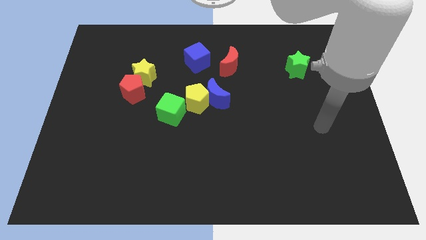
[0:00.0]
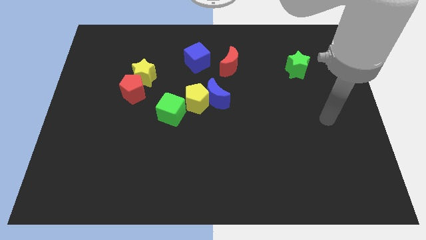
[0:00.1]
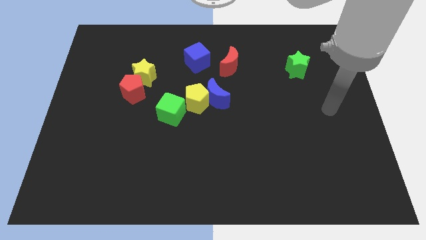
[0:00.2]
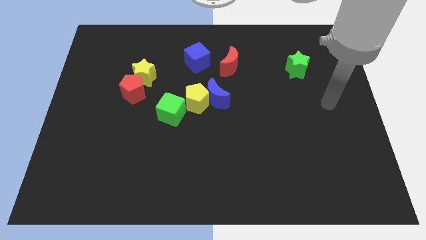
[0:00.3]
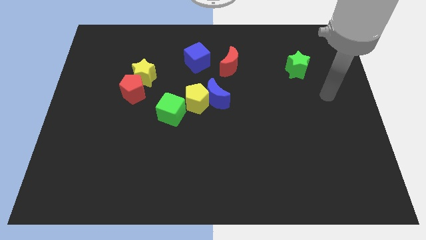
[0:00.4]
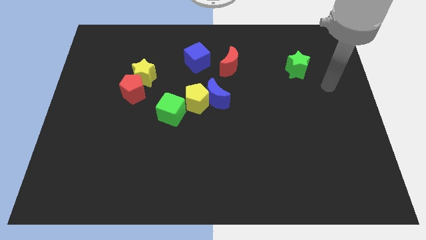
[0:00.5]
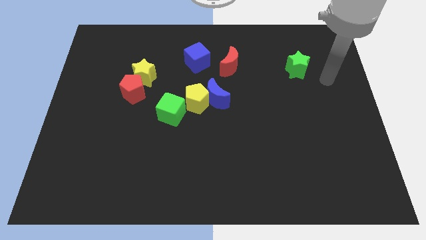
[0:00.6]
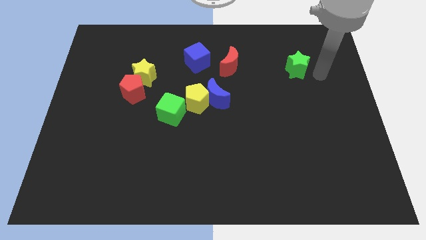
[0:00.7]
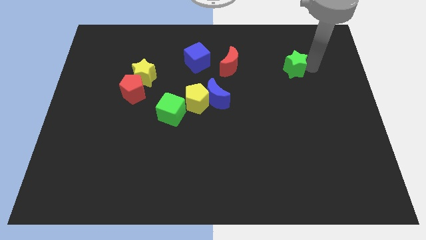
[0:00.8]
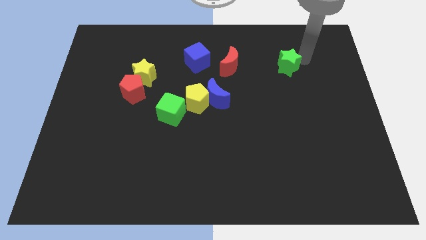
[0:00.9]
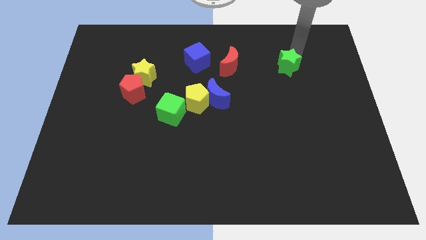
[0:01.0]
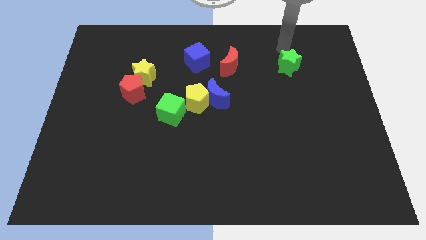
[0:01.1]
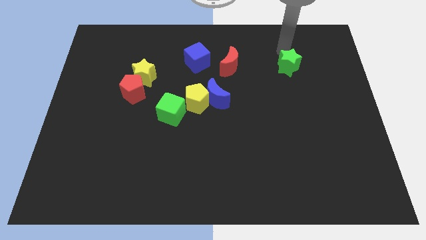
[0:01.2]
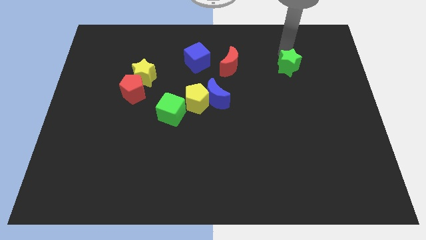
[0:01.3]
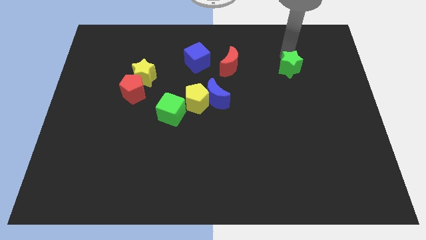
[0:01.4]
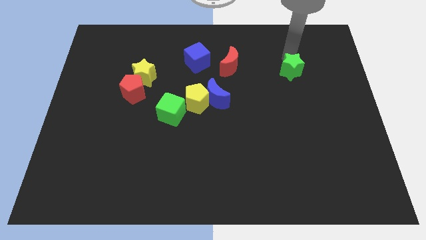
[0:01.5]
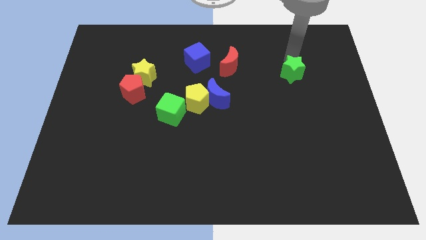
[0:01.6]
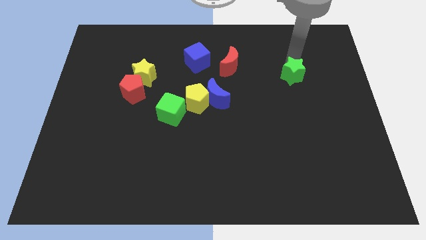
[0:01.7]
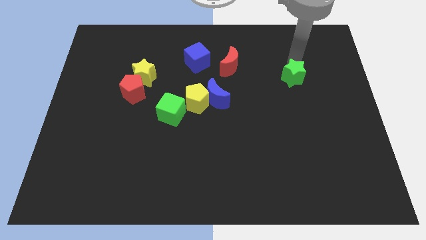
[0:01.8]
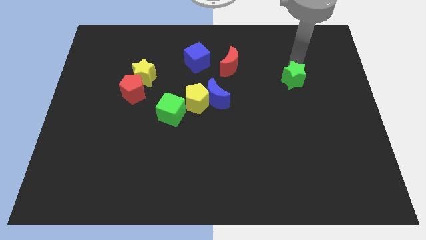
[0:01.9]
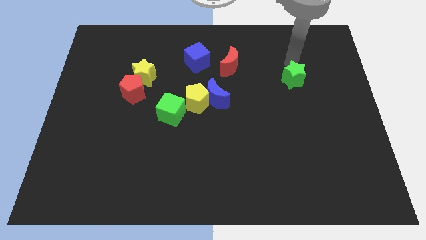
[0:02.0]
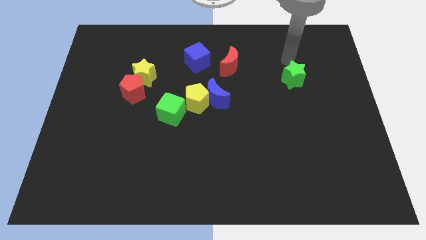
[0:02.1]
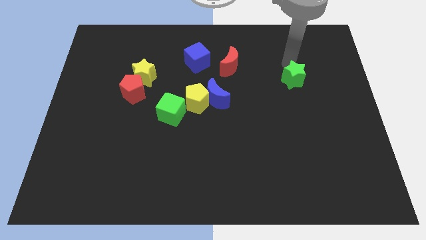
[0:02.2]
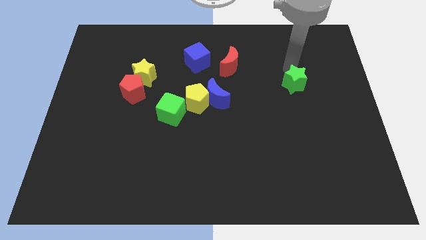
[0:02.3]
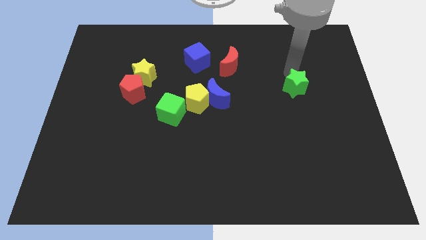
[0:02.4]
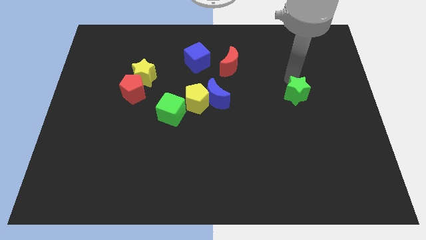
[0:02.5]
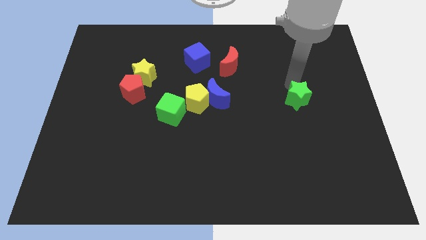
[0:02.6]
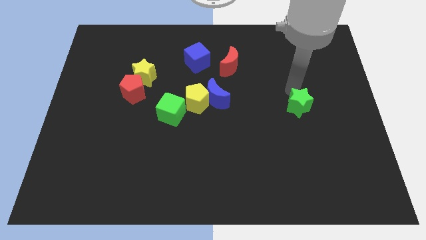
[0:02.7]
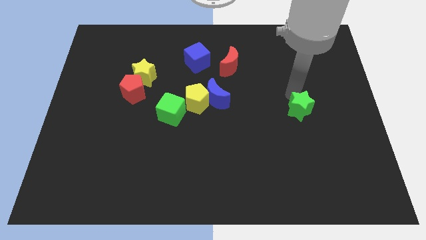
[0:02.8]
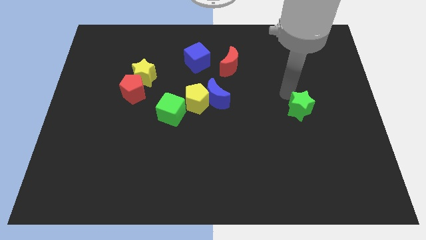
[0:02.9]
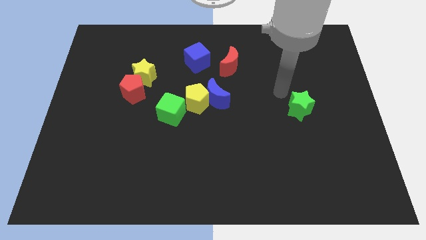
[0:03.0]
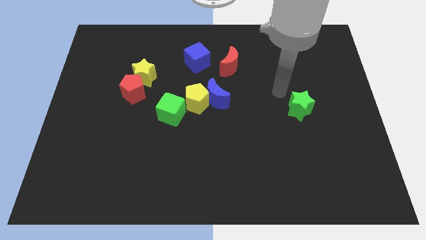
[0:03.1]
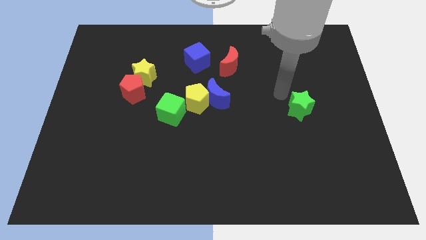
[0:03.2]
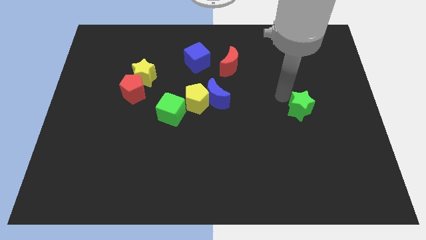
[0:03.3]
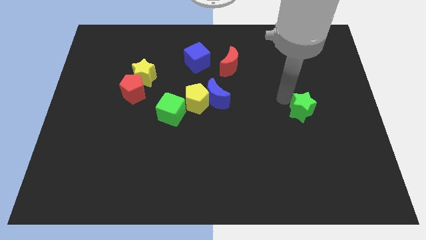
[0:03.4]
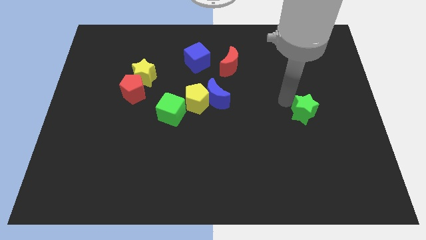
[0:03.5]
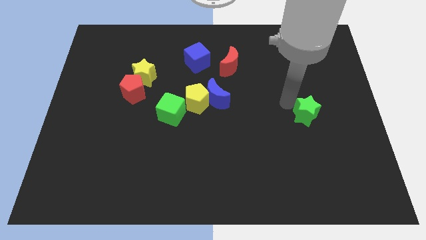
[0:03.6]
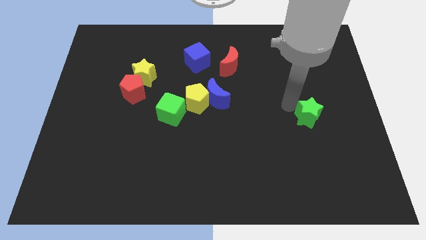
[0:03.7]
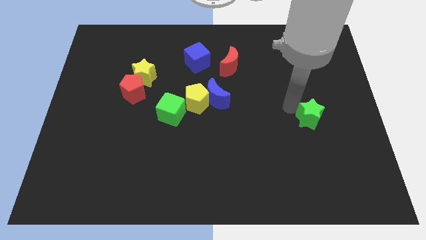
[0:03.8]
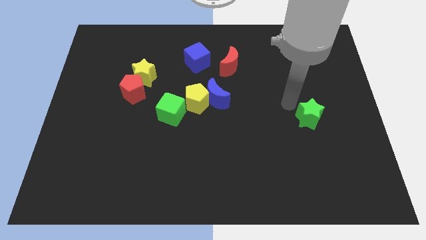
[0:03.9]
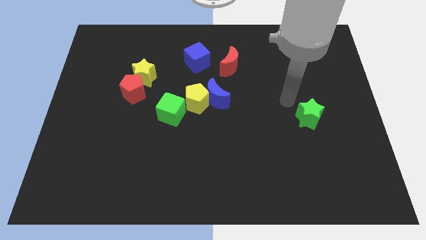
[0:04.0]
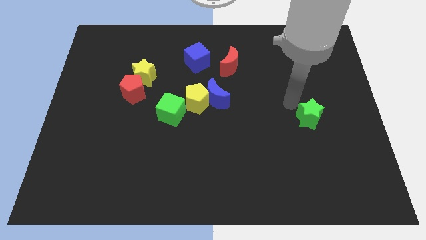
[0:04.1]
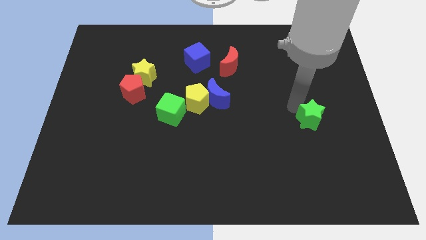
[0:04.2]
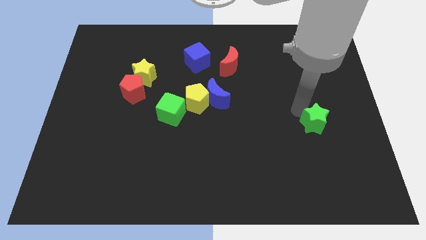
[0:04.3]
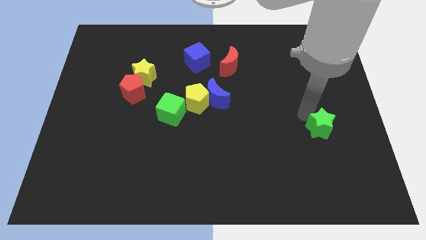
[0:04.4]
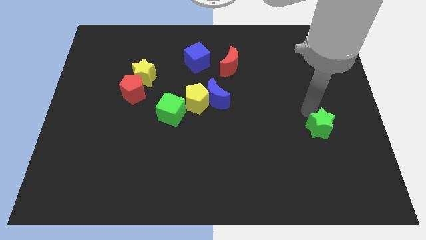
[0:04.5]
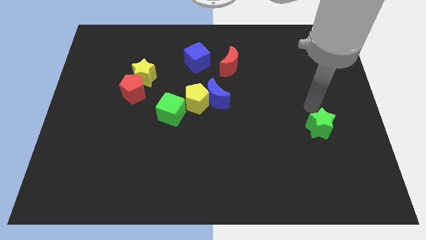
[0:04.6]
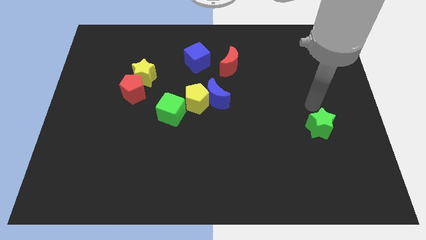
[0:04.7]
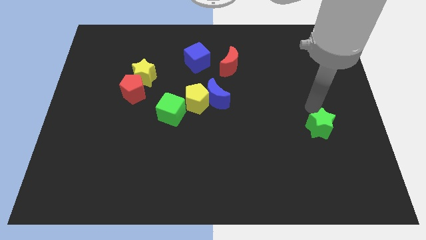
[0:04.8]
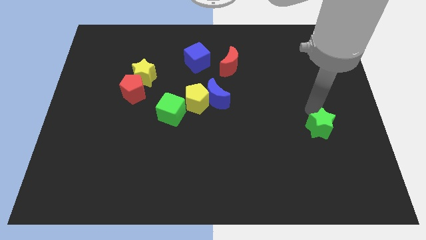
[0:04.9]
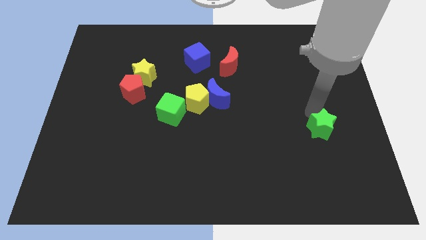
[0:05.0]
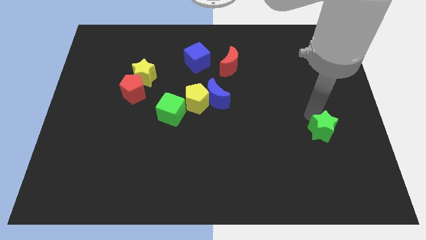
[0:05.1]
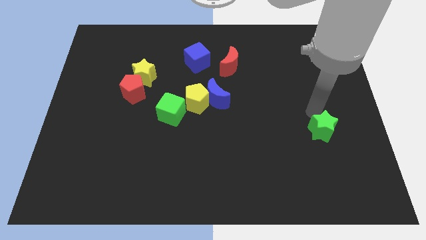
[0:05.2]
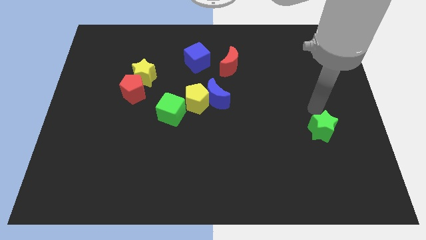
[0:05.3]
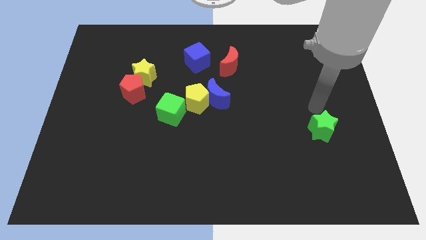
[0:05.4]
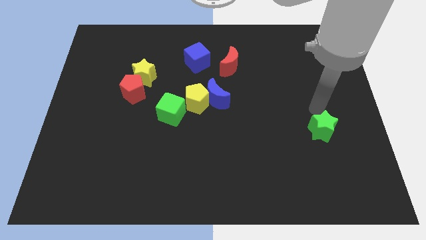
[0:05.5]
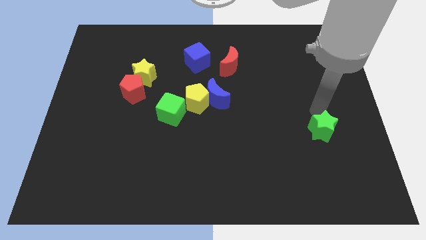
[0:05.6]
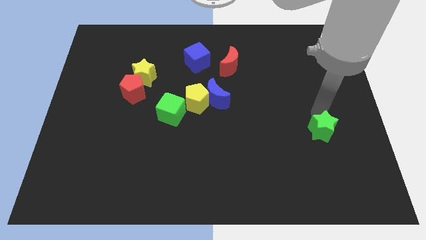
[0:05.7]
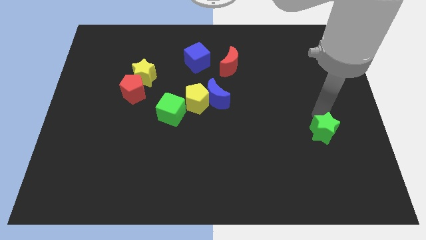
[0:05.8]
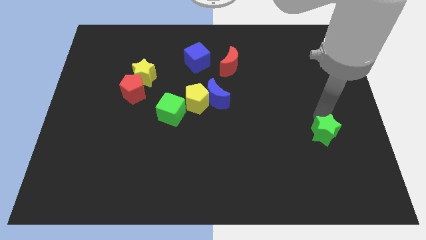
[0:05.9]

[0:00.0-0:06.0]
push the green star downwards

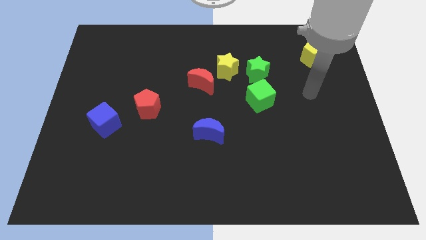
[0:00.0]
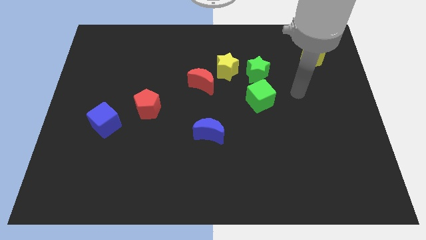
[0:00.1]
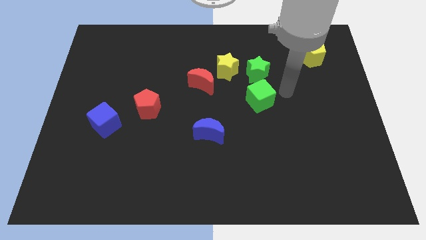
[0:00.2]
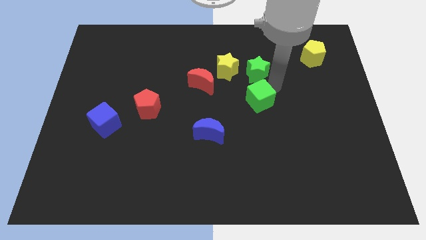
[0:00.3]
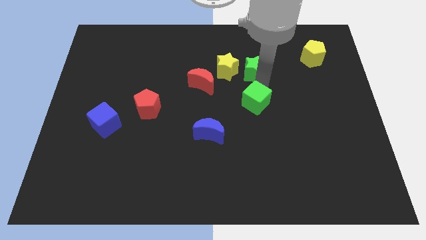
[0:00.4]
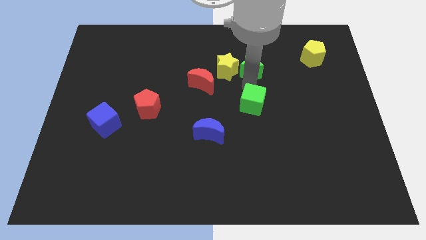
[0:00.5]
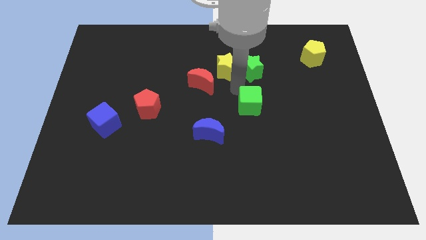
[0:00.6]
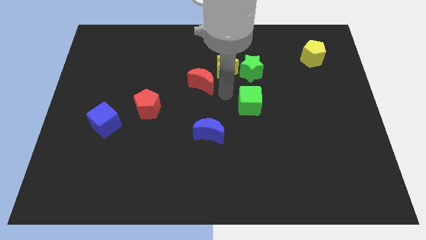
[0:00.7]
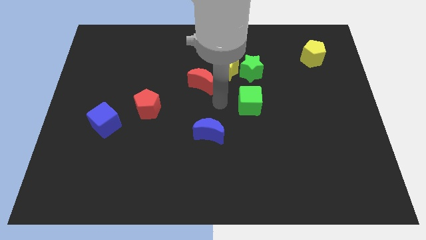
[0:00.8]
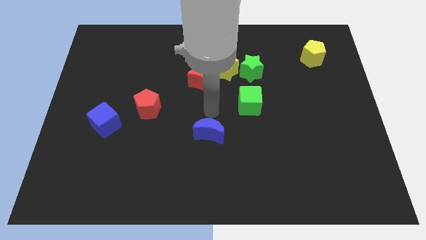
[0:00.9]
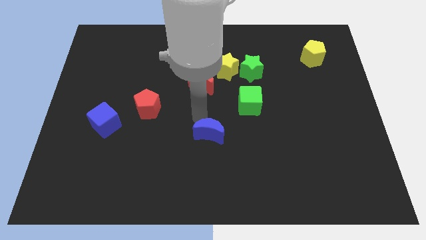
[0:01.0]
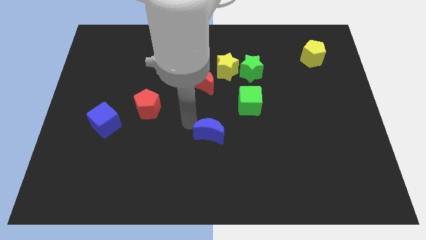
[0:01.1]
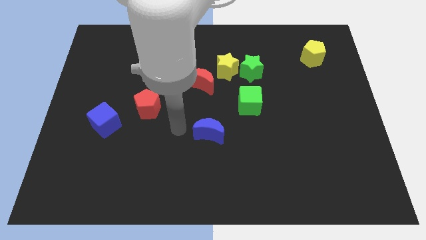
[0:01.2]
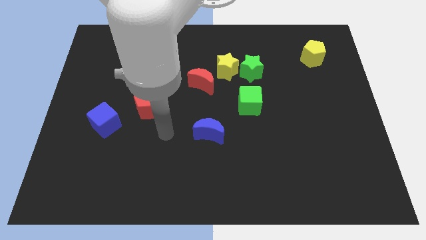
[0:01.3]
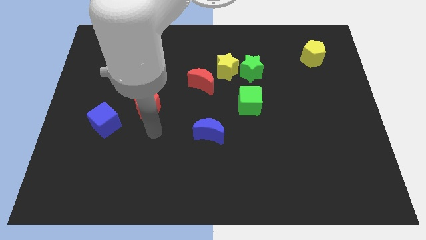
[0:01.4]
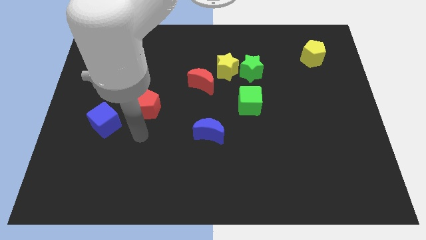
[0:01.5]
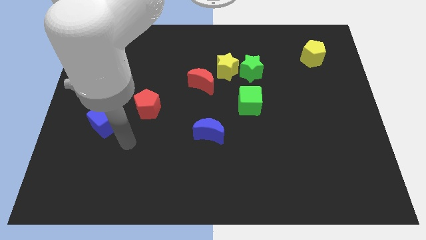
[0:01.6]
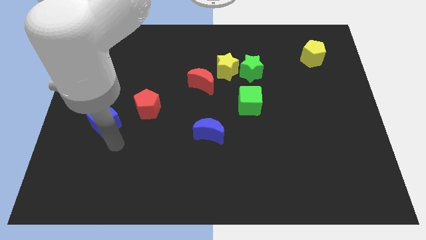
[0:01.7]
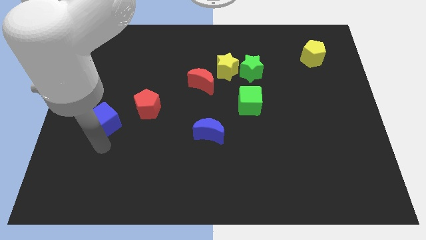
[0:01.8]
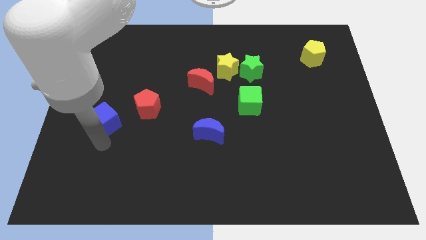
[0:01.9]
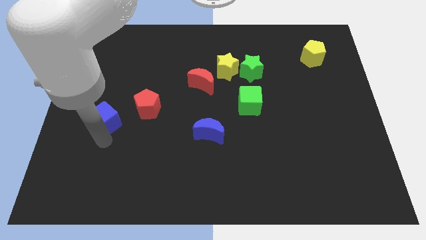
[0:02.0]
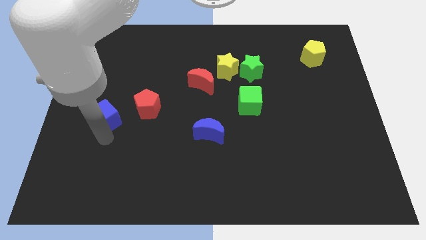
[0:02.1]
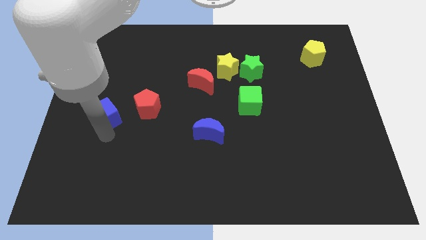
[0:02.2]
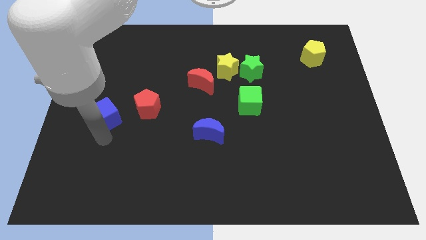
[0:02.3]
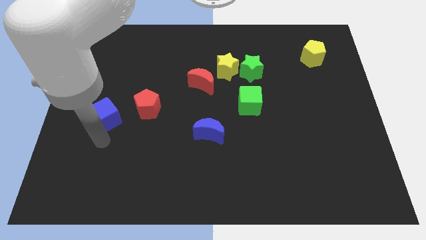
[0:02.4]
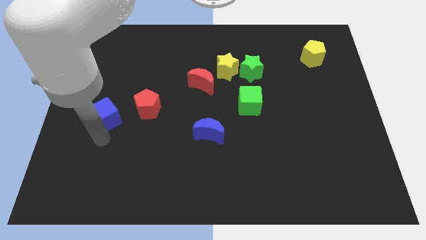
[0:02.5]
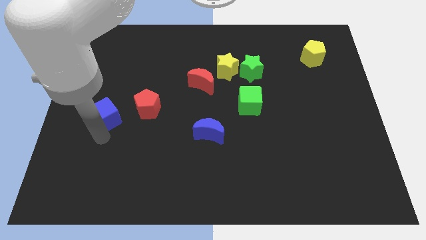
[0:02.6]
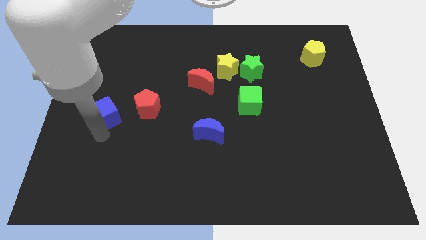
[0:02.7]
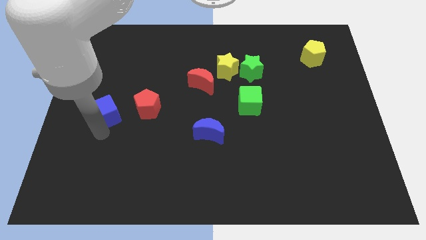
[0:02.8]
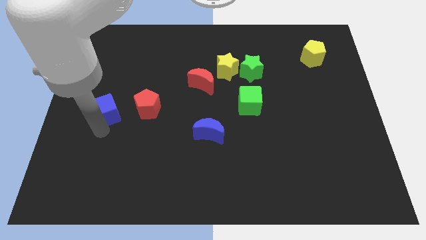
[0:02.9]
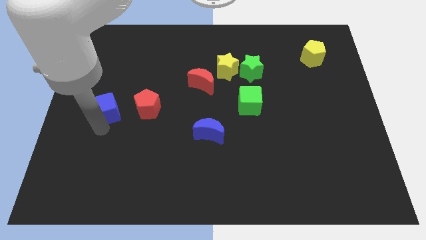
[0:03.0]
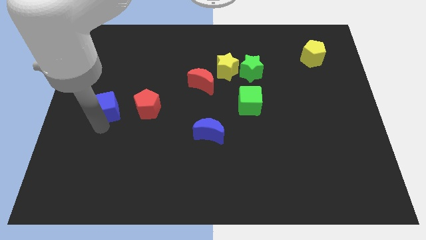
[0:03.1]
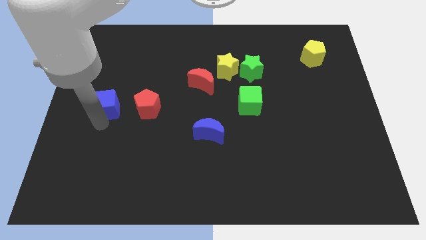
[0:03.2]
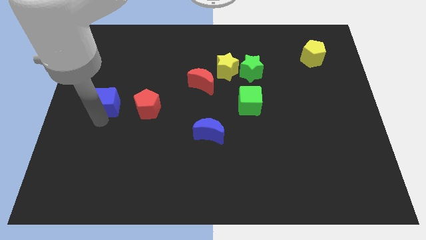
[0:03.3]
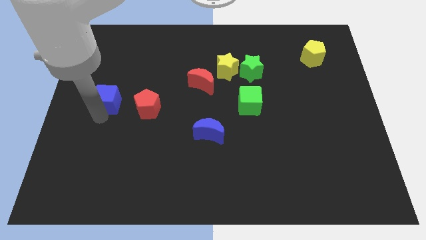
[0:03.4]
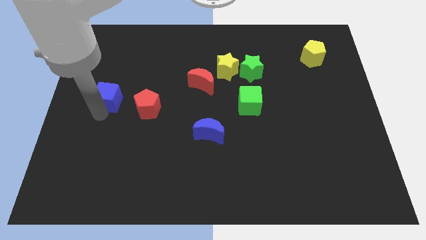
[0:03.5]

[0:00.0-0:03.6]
slide the blue cube a little up
